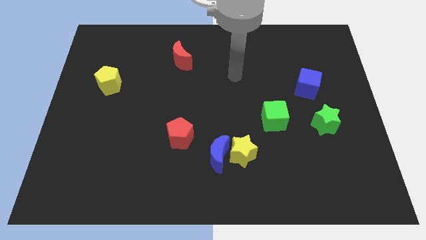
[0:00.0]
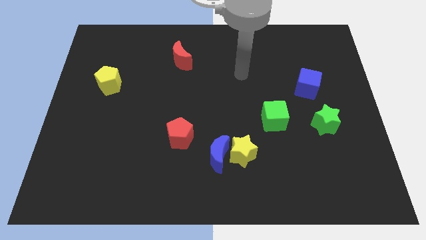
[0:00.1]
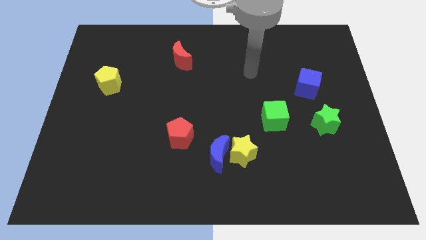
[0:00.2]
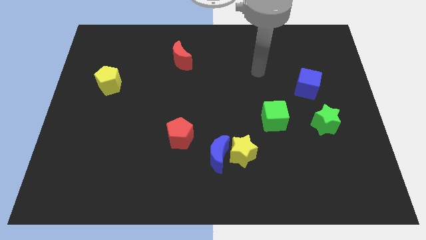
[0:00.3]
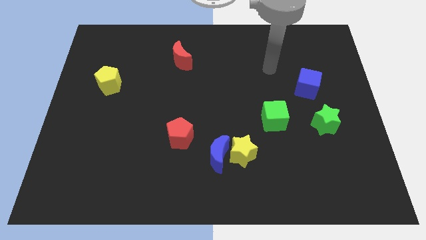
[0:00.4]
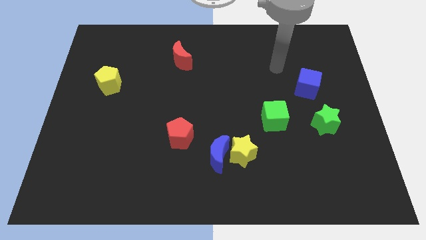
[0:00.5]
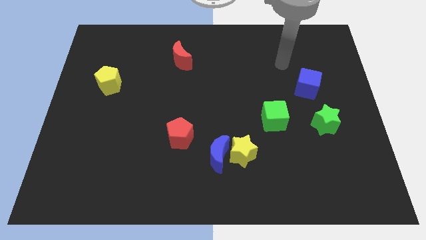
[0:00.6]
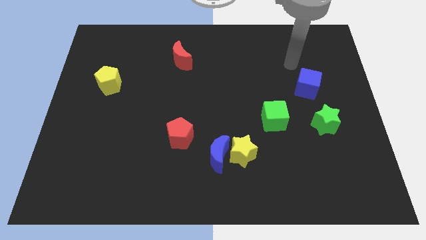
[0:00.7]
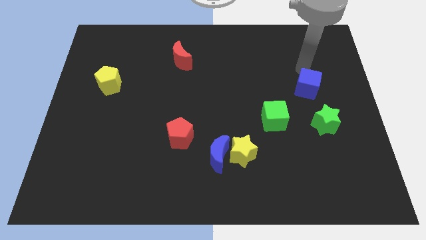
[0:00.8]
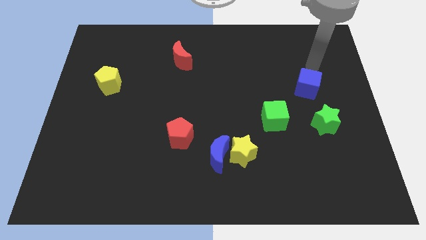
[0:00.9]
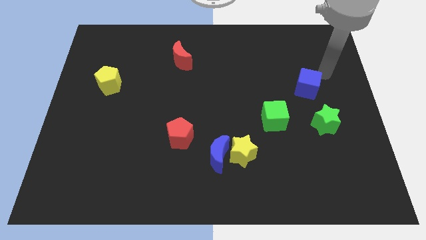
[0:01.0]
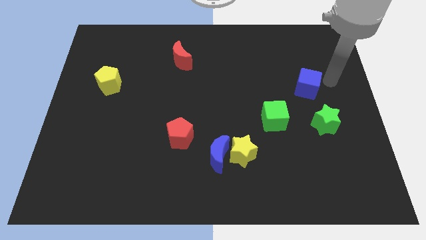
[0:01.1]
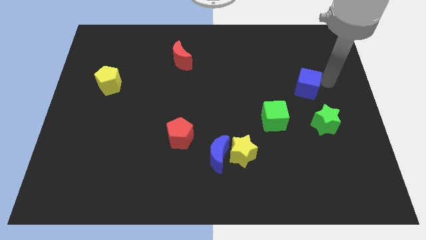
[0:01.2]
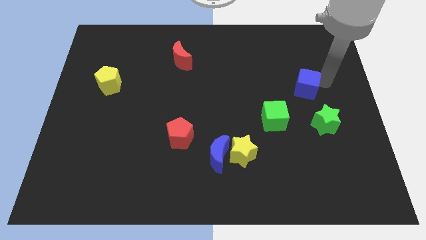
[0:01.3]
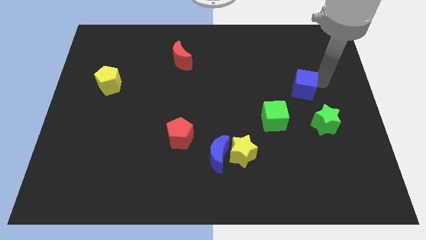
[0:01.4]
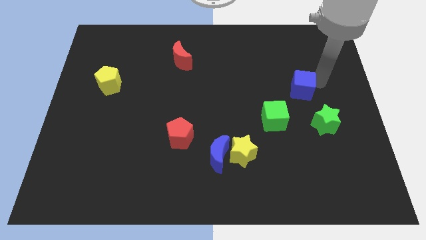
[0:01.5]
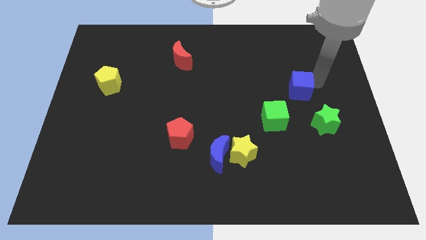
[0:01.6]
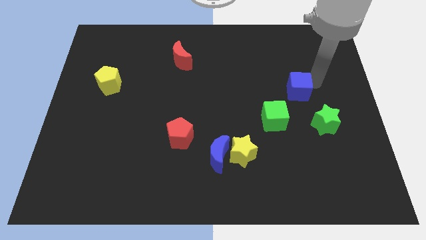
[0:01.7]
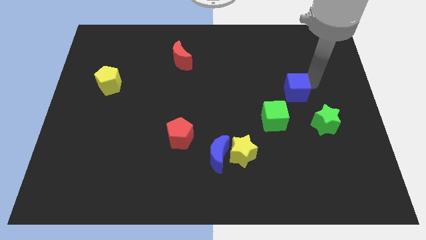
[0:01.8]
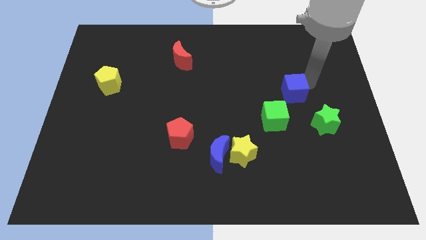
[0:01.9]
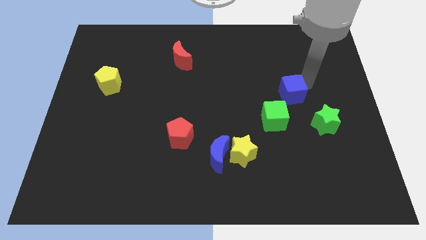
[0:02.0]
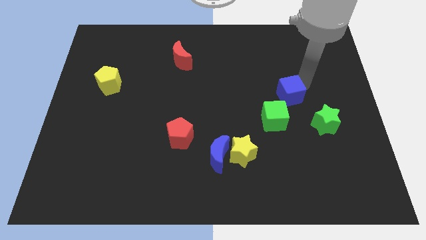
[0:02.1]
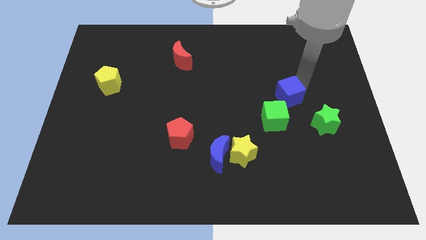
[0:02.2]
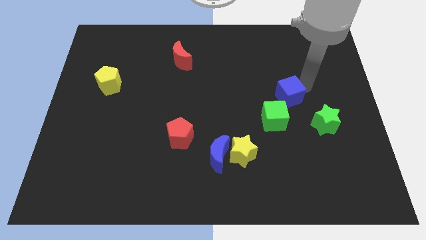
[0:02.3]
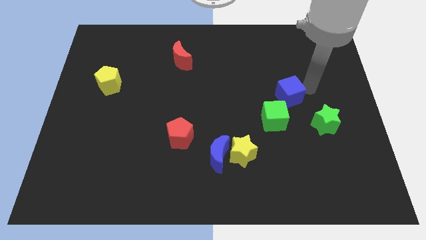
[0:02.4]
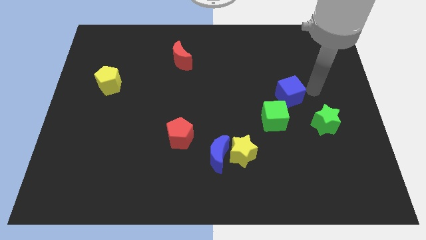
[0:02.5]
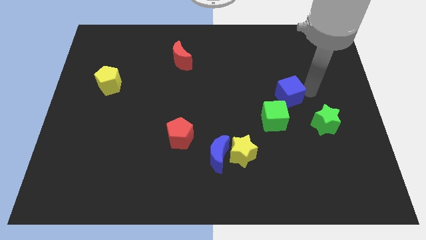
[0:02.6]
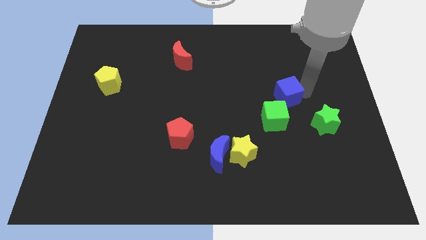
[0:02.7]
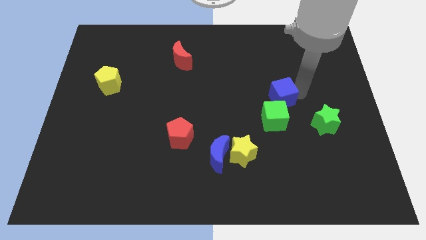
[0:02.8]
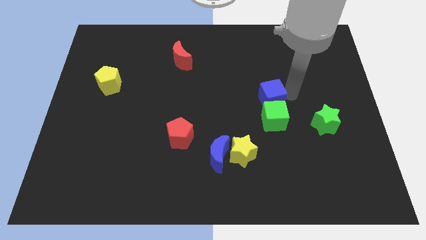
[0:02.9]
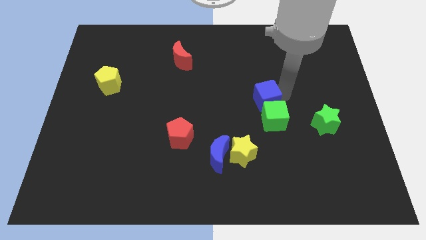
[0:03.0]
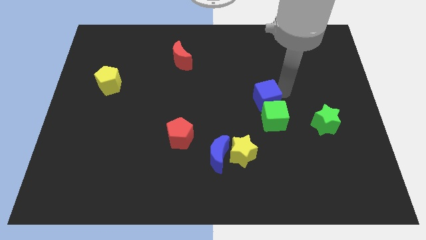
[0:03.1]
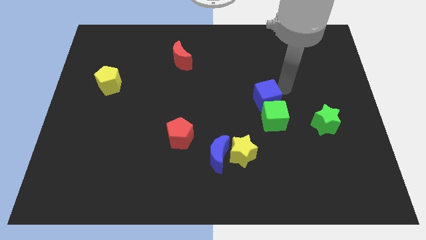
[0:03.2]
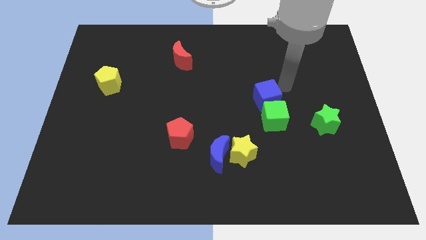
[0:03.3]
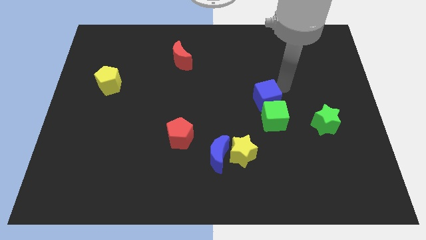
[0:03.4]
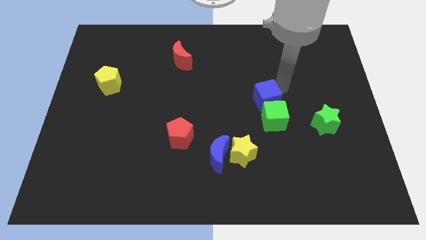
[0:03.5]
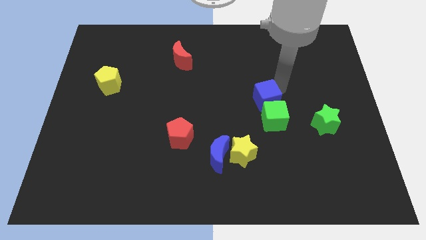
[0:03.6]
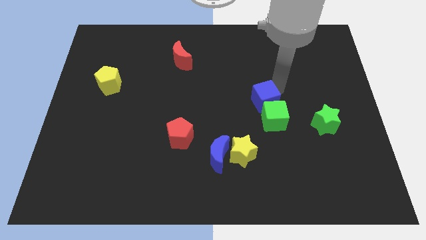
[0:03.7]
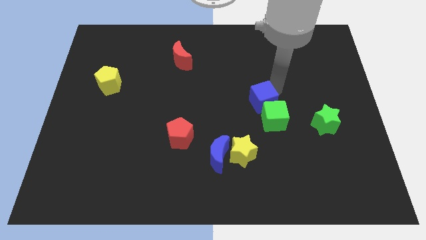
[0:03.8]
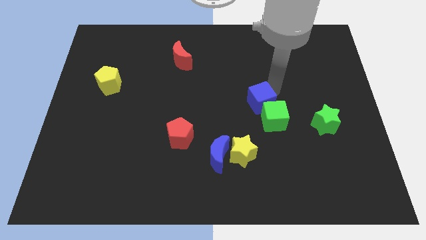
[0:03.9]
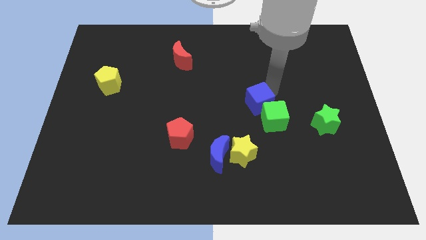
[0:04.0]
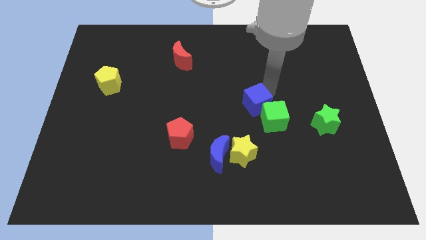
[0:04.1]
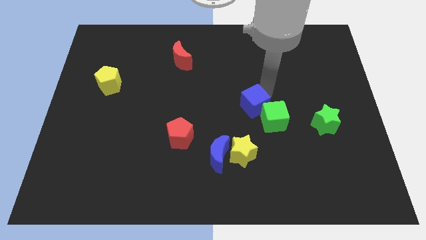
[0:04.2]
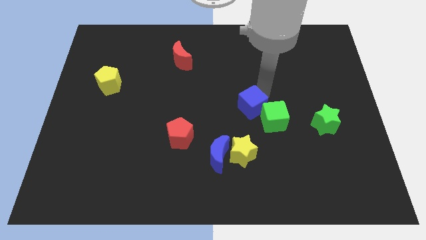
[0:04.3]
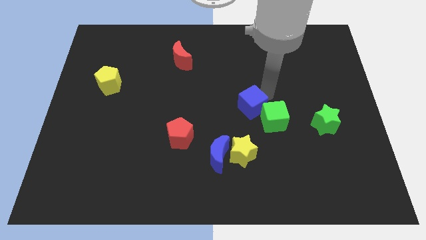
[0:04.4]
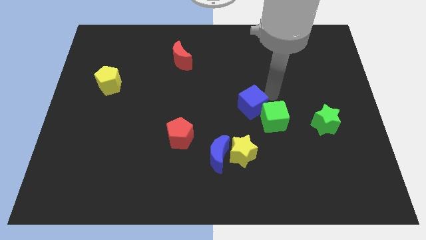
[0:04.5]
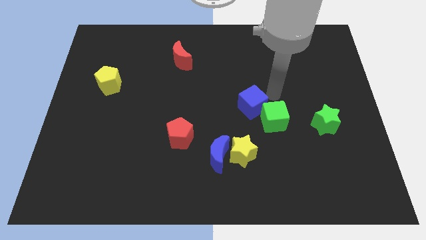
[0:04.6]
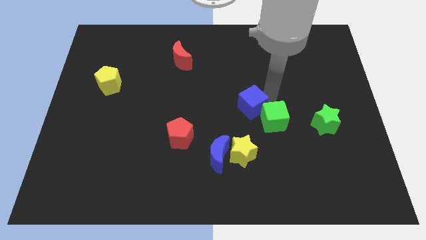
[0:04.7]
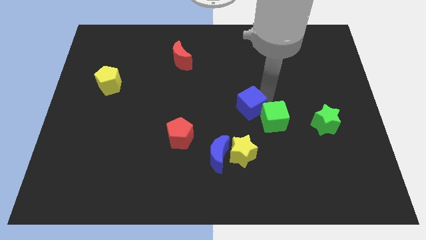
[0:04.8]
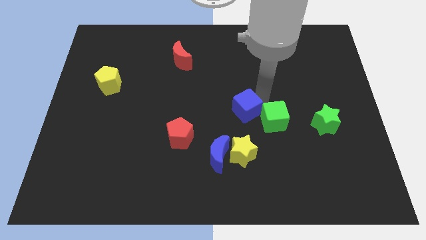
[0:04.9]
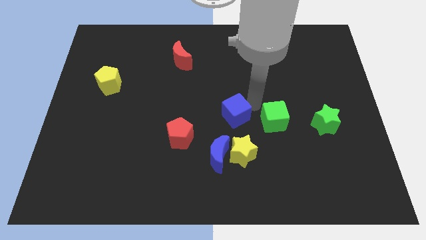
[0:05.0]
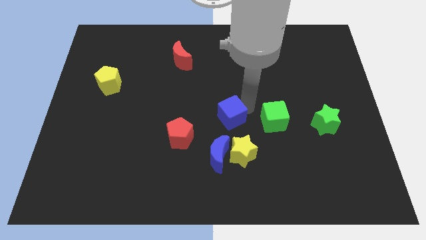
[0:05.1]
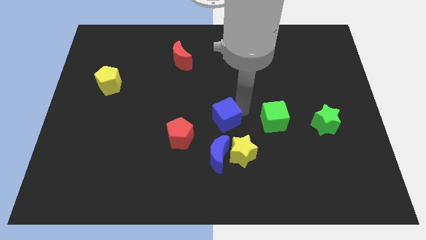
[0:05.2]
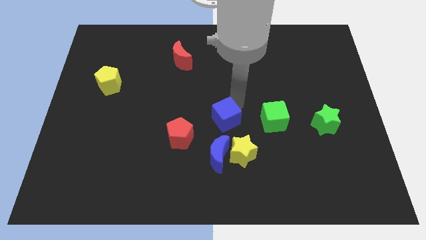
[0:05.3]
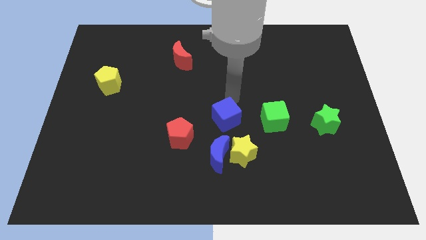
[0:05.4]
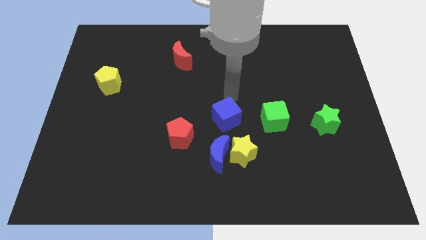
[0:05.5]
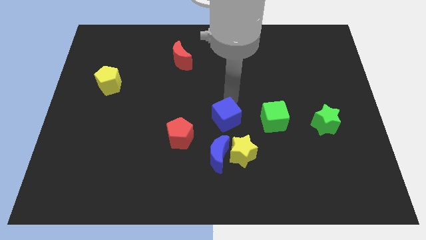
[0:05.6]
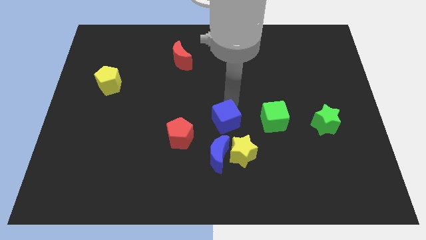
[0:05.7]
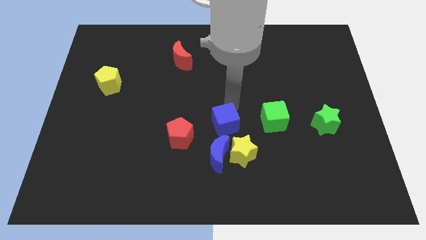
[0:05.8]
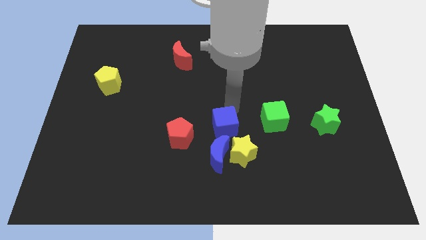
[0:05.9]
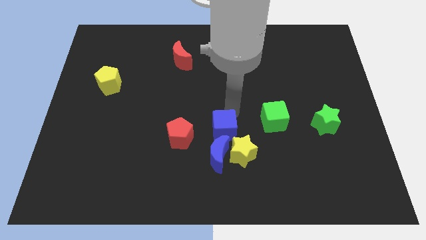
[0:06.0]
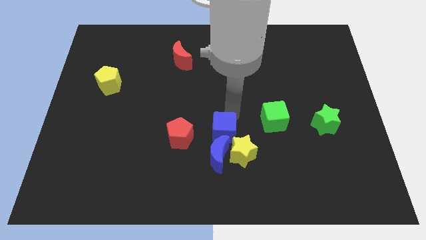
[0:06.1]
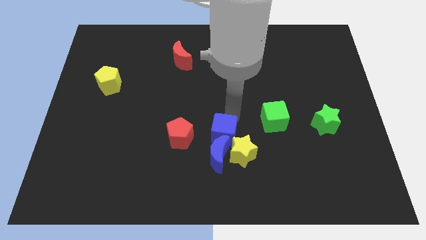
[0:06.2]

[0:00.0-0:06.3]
slide the blue cube towards the blue moon

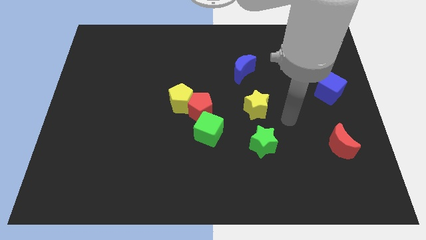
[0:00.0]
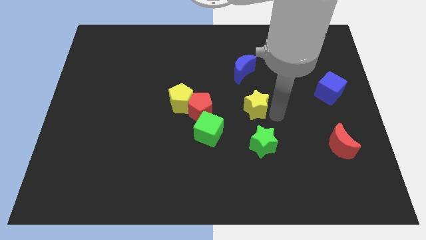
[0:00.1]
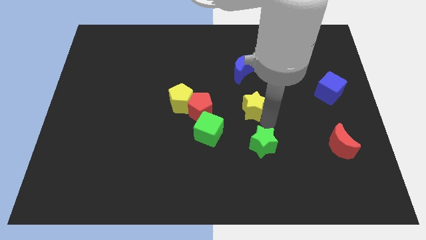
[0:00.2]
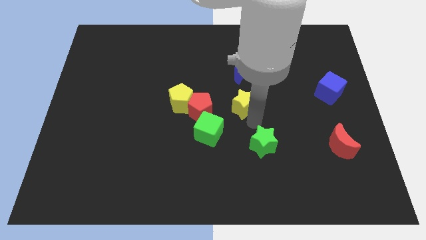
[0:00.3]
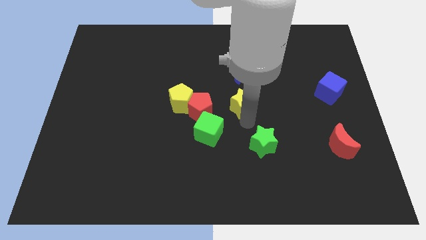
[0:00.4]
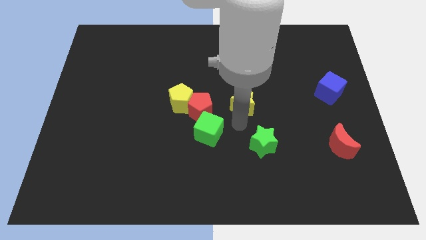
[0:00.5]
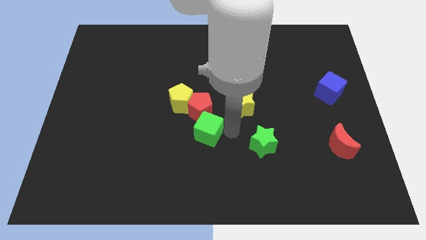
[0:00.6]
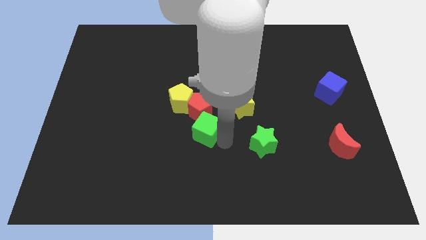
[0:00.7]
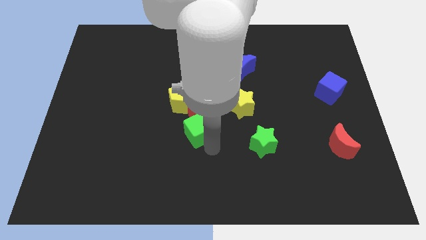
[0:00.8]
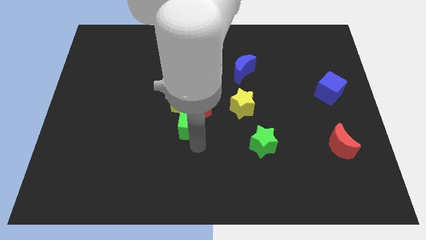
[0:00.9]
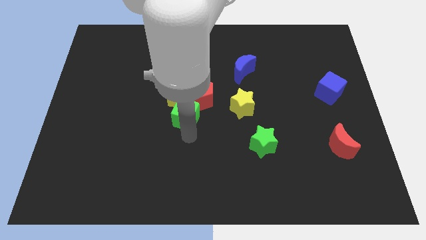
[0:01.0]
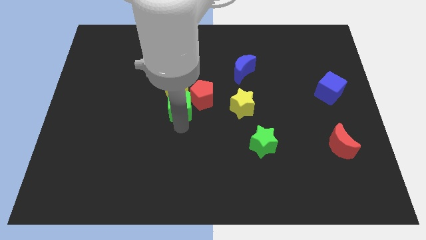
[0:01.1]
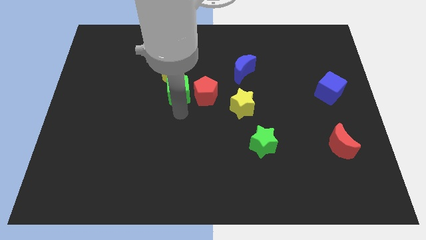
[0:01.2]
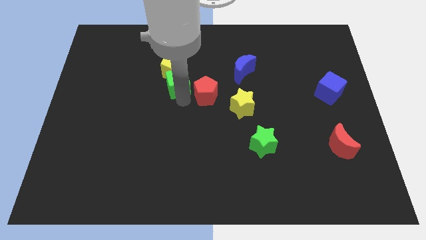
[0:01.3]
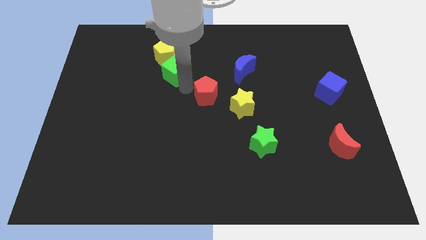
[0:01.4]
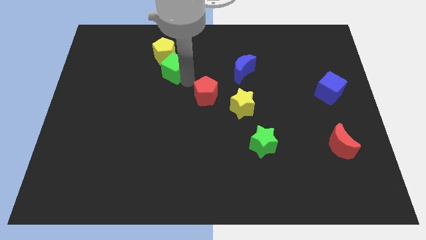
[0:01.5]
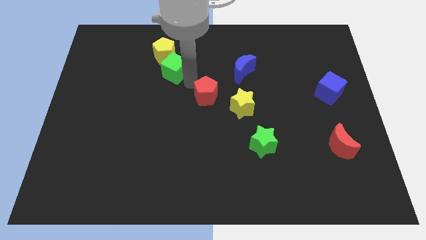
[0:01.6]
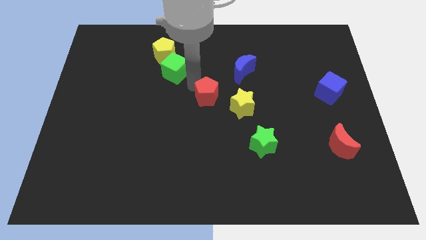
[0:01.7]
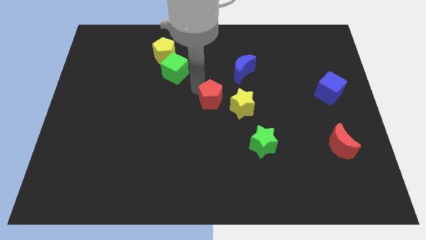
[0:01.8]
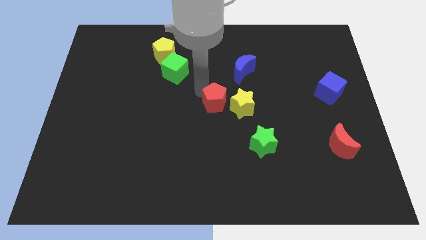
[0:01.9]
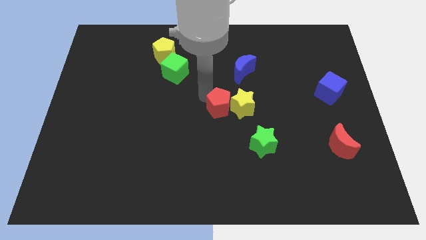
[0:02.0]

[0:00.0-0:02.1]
move the red pentagon towards the yellow star
